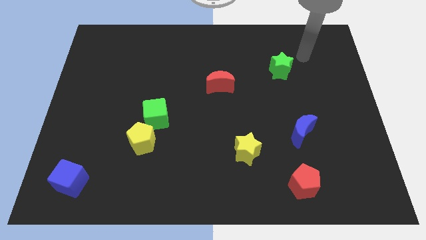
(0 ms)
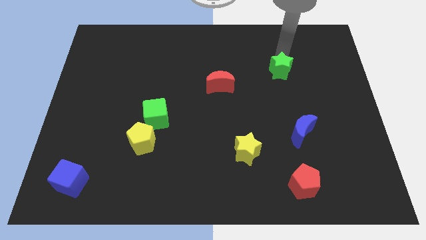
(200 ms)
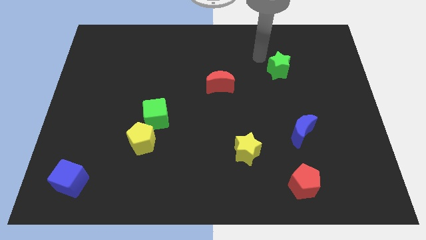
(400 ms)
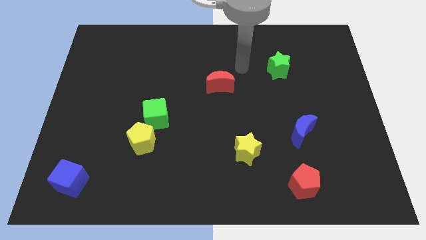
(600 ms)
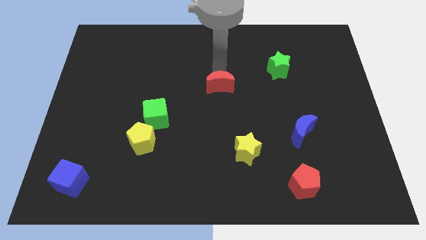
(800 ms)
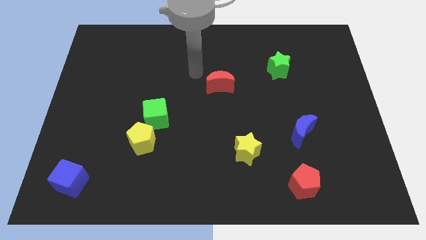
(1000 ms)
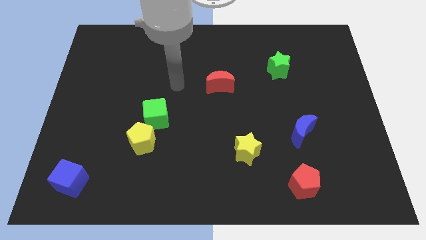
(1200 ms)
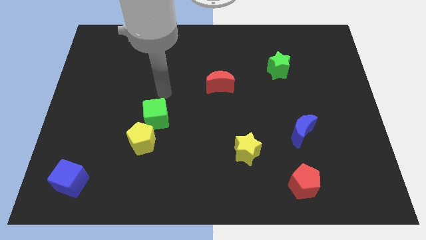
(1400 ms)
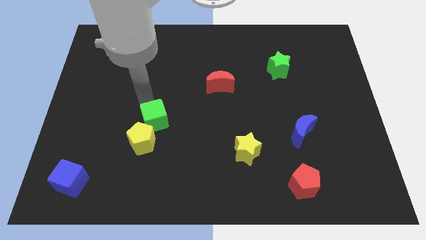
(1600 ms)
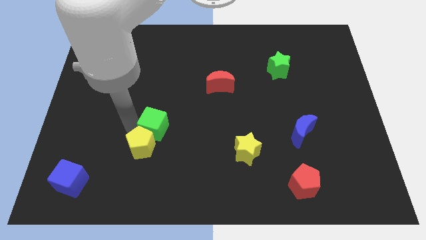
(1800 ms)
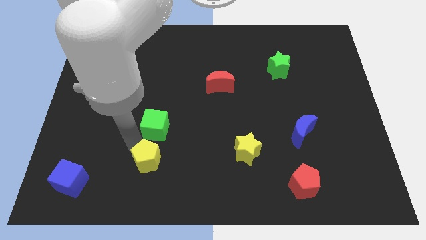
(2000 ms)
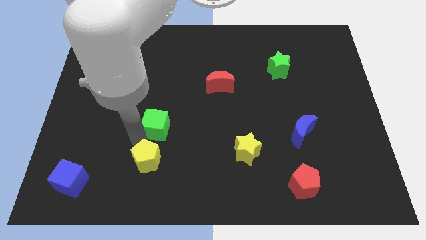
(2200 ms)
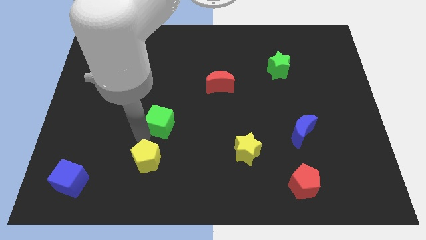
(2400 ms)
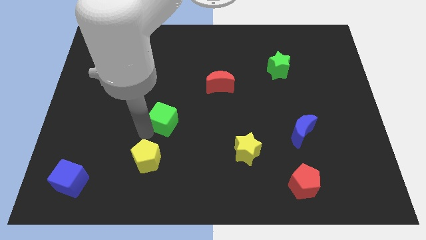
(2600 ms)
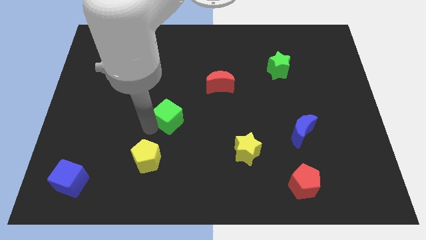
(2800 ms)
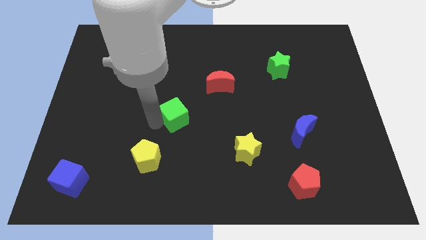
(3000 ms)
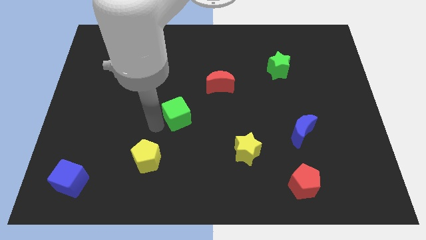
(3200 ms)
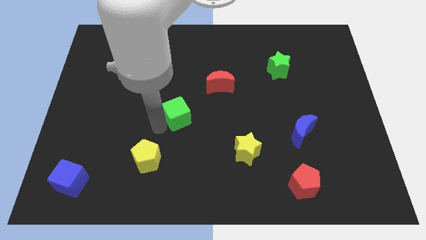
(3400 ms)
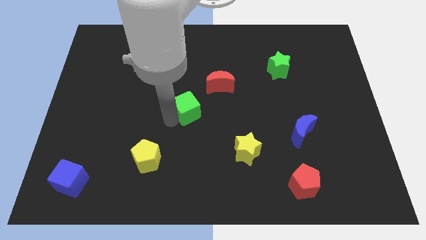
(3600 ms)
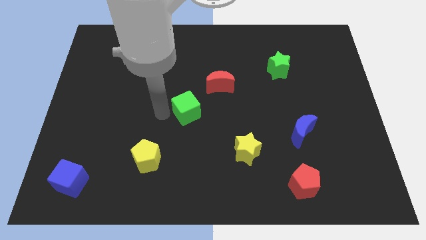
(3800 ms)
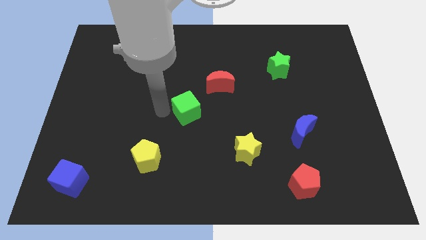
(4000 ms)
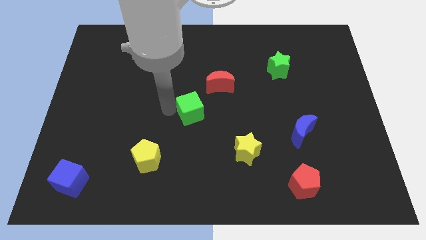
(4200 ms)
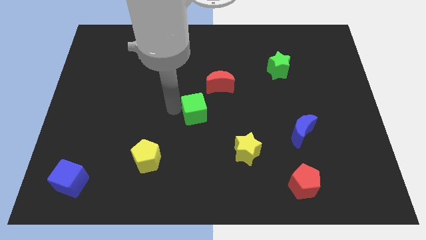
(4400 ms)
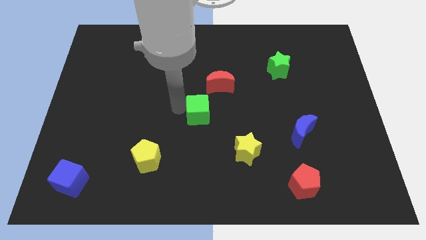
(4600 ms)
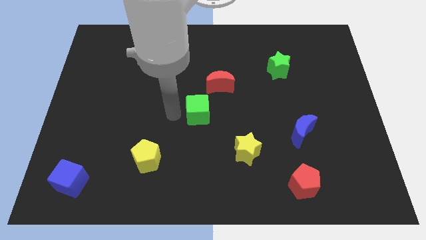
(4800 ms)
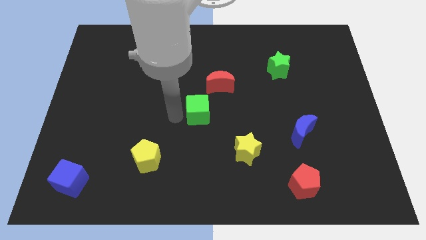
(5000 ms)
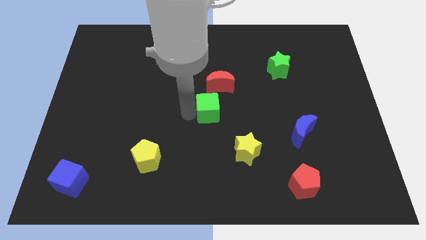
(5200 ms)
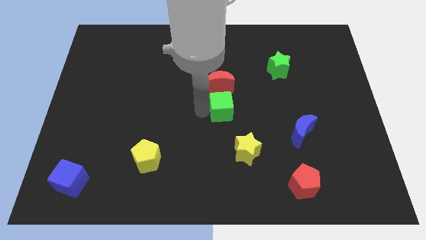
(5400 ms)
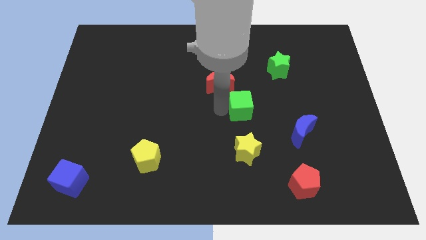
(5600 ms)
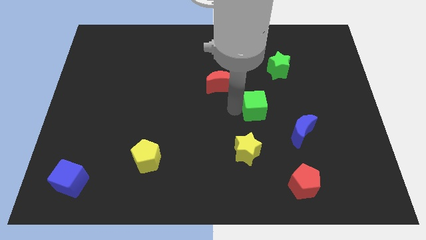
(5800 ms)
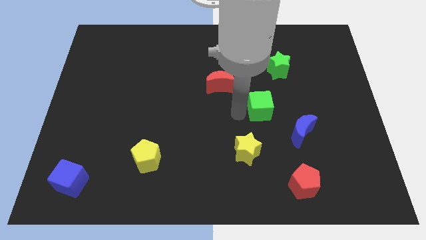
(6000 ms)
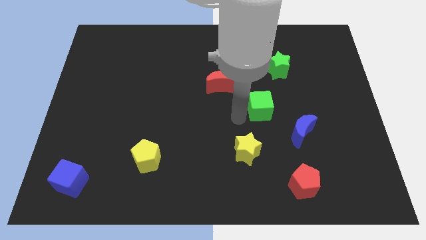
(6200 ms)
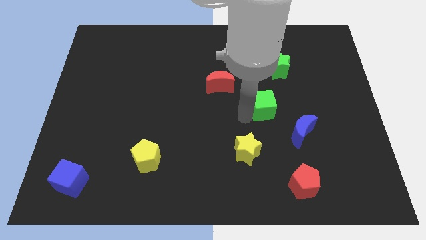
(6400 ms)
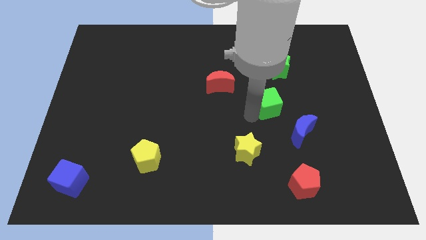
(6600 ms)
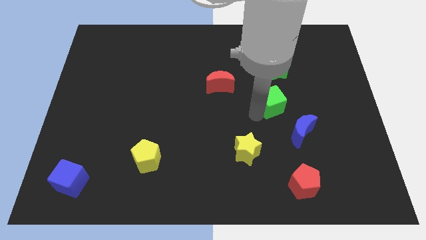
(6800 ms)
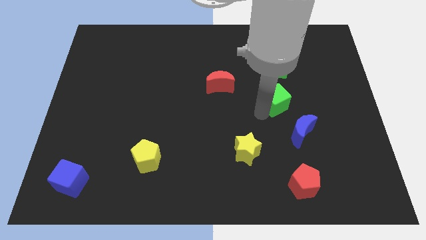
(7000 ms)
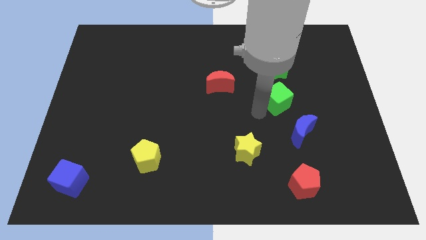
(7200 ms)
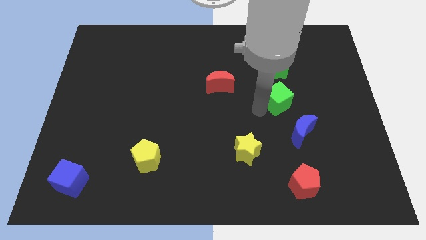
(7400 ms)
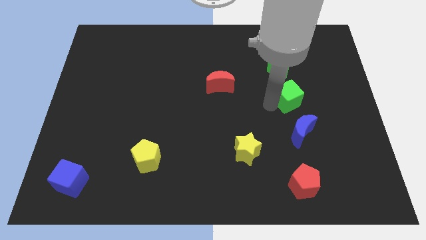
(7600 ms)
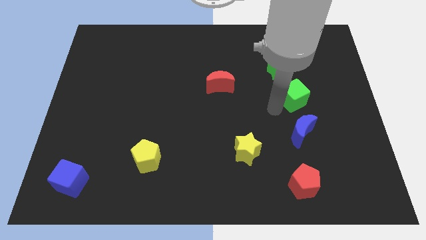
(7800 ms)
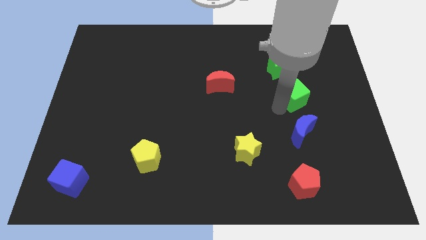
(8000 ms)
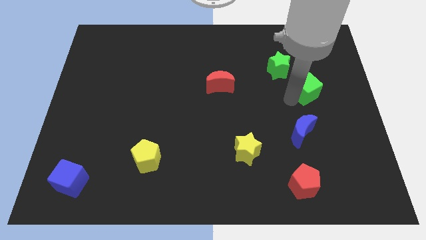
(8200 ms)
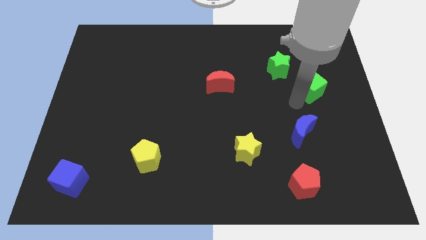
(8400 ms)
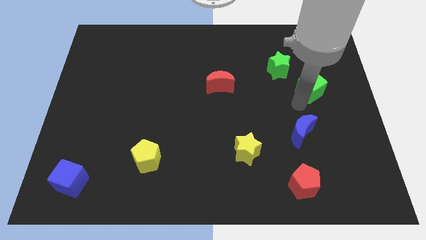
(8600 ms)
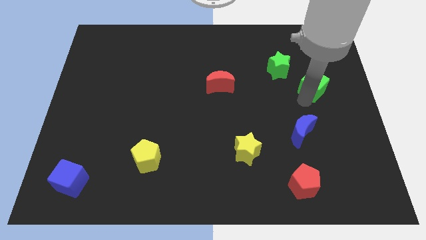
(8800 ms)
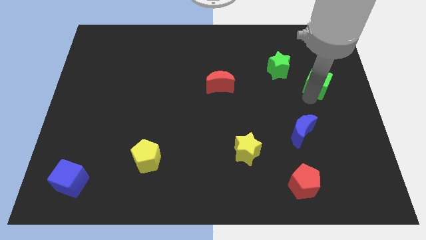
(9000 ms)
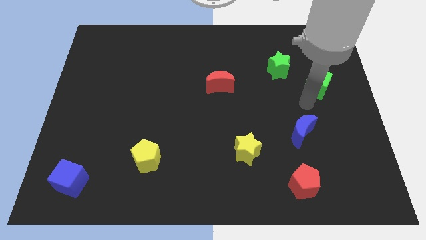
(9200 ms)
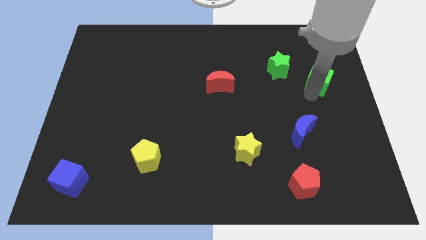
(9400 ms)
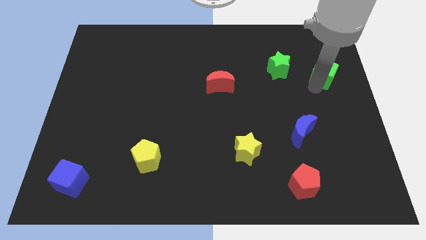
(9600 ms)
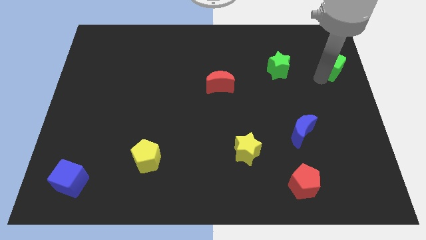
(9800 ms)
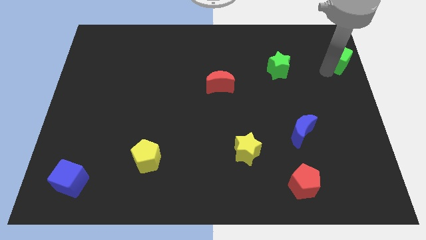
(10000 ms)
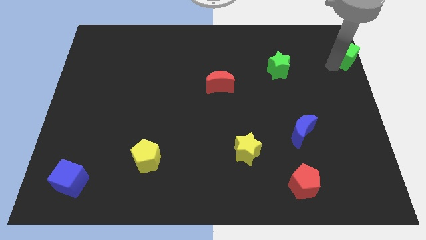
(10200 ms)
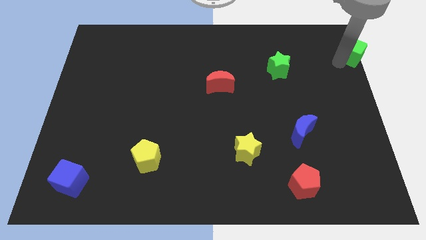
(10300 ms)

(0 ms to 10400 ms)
move the green cube to the top right of the board

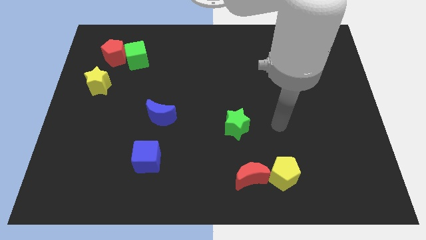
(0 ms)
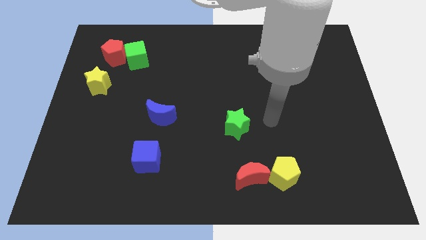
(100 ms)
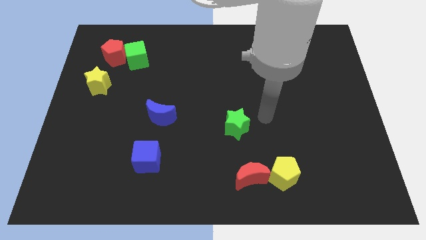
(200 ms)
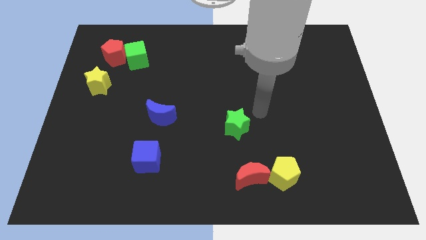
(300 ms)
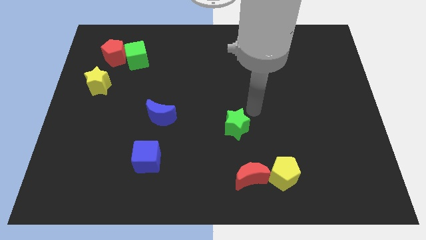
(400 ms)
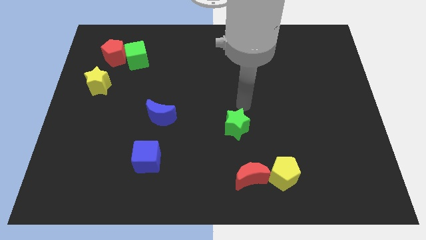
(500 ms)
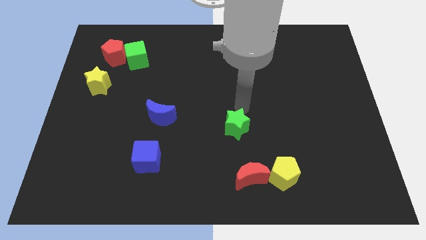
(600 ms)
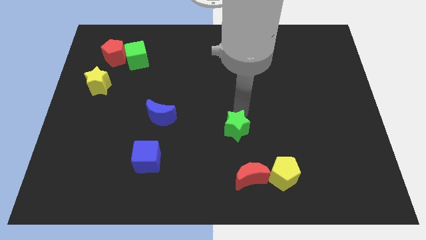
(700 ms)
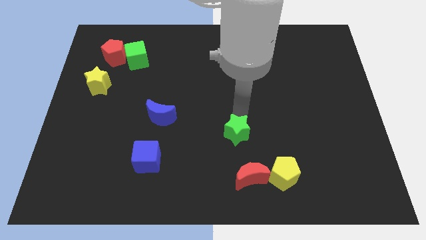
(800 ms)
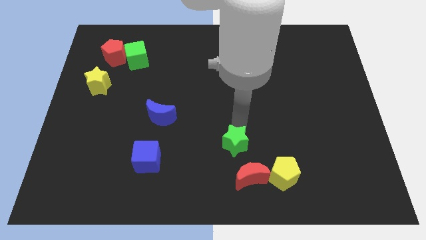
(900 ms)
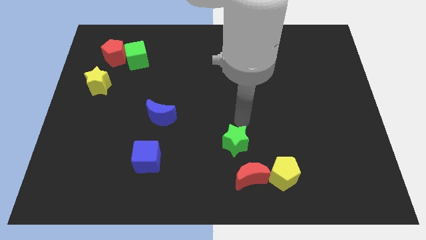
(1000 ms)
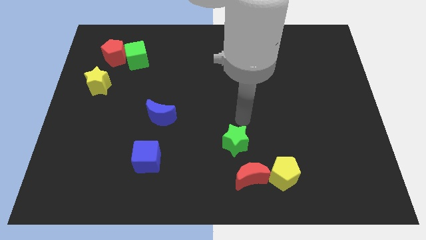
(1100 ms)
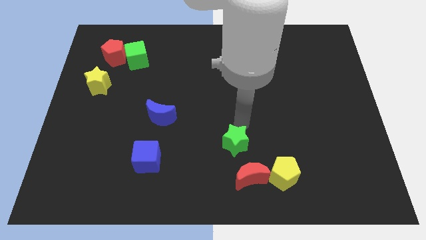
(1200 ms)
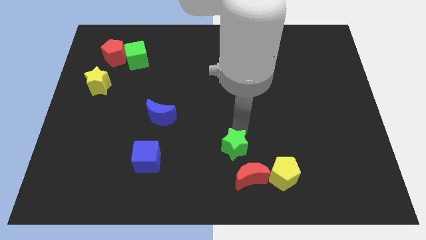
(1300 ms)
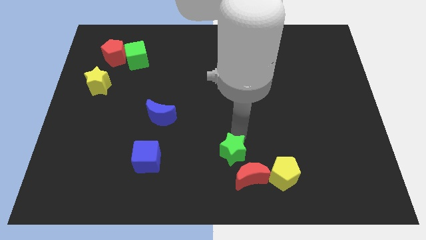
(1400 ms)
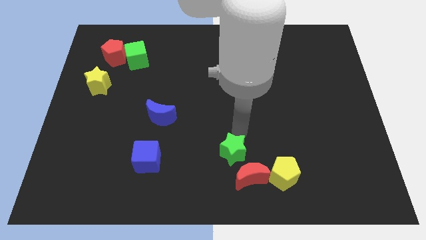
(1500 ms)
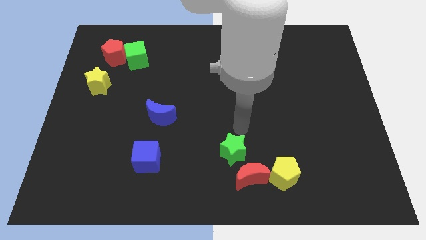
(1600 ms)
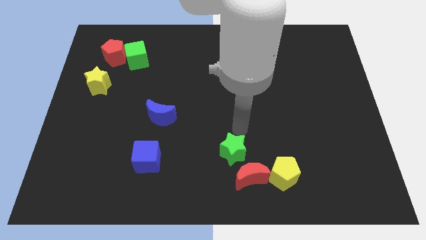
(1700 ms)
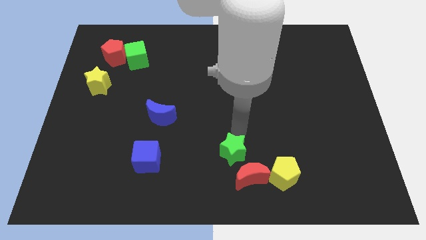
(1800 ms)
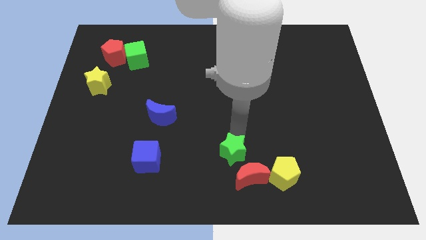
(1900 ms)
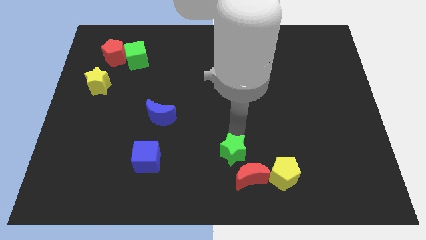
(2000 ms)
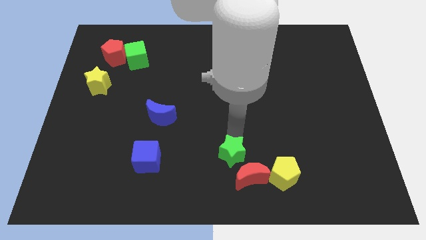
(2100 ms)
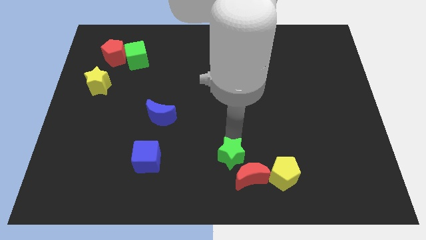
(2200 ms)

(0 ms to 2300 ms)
push the green star to the bottom side
